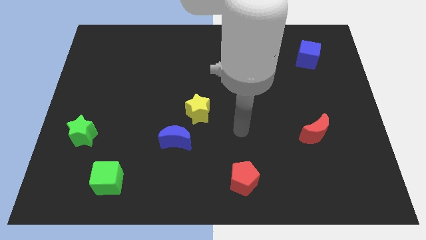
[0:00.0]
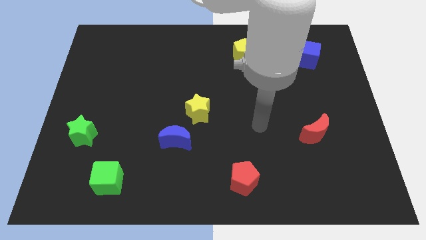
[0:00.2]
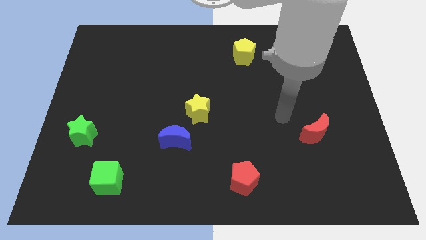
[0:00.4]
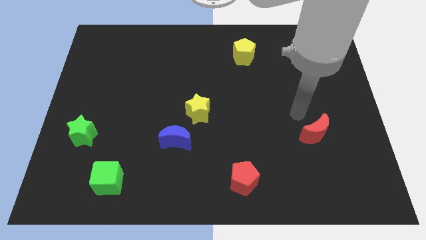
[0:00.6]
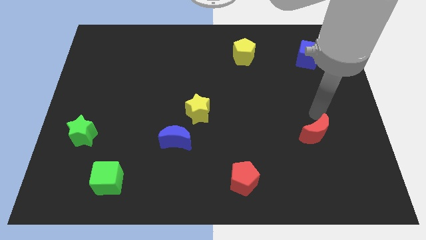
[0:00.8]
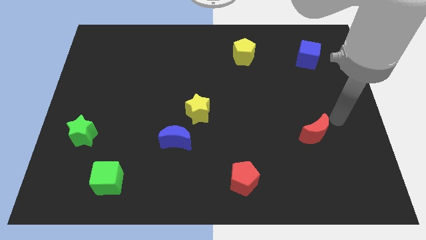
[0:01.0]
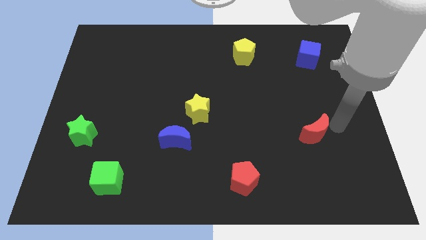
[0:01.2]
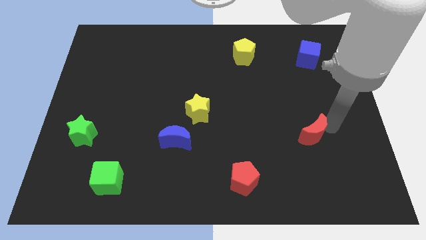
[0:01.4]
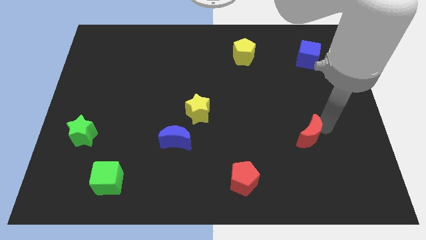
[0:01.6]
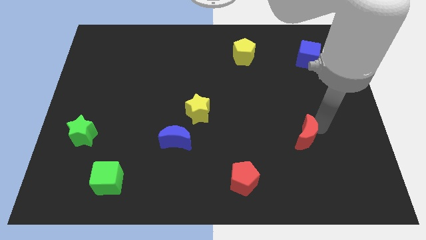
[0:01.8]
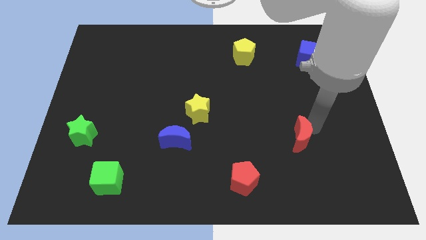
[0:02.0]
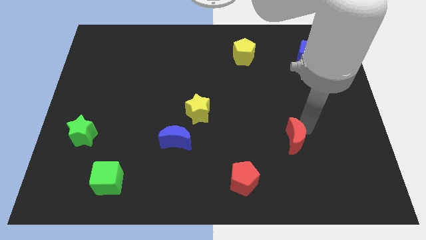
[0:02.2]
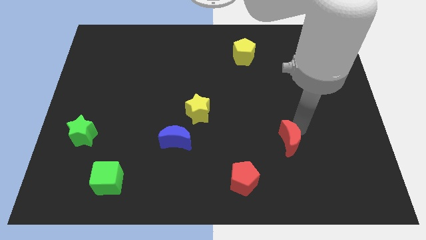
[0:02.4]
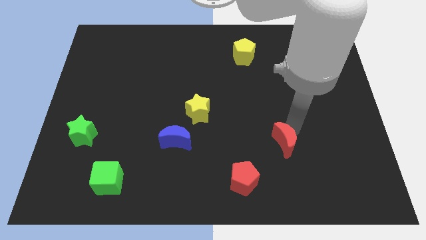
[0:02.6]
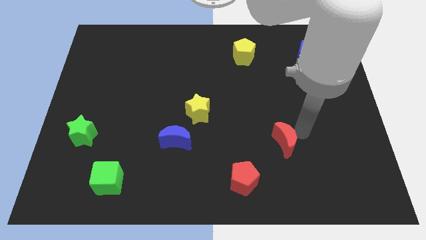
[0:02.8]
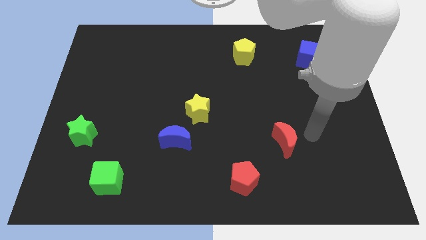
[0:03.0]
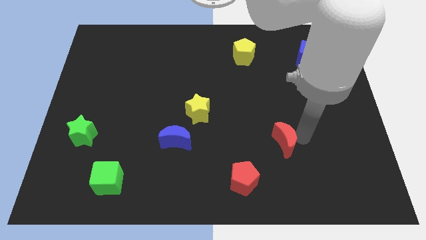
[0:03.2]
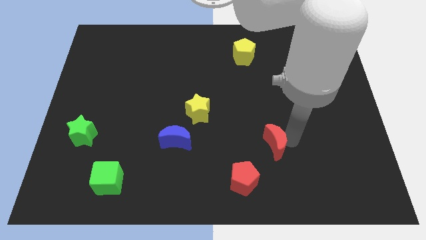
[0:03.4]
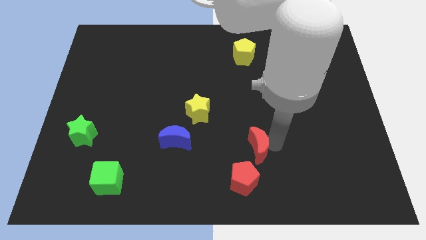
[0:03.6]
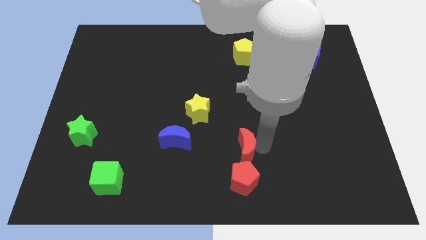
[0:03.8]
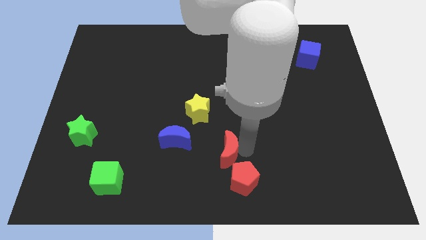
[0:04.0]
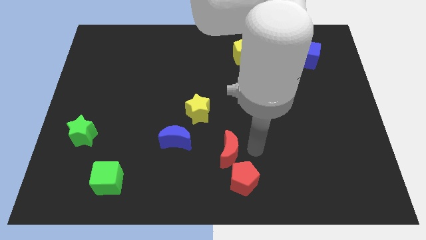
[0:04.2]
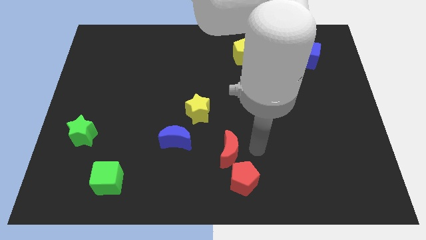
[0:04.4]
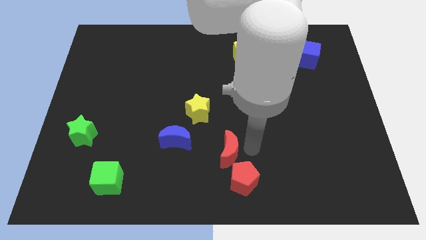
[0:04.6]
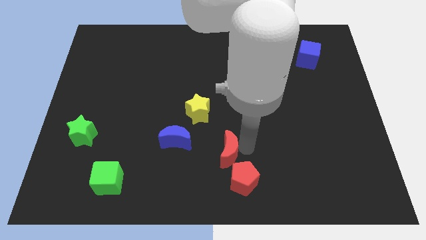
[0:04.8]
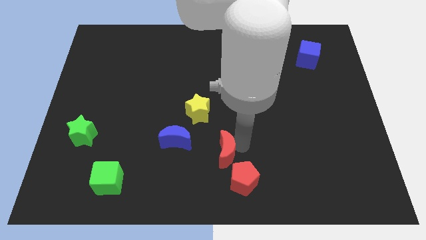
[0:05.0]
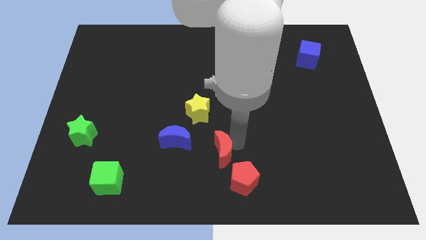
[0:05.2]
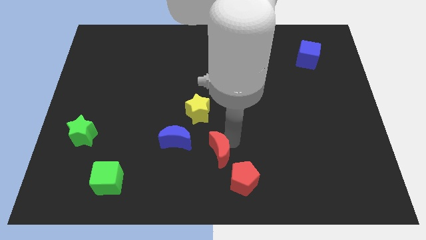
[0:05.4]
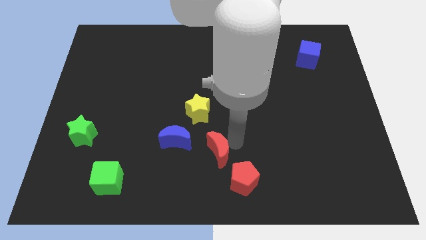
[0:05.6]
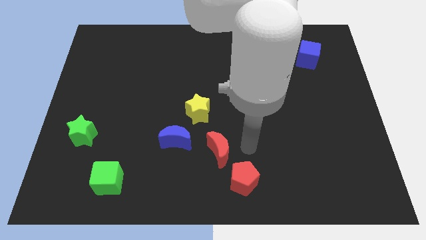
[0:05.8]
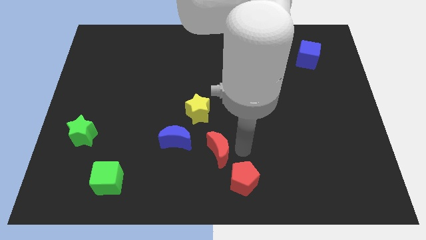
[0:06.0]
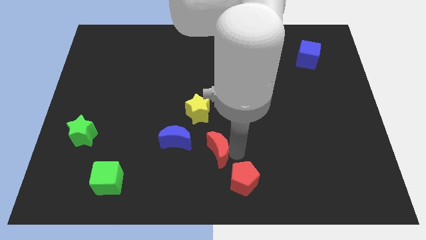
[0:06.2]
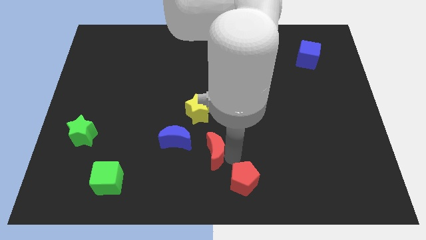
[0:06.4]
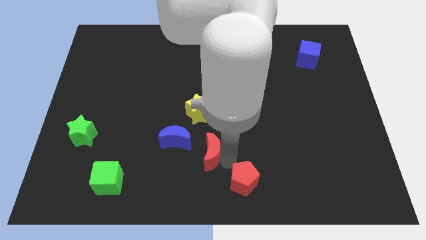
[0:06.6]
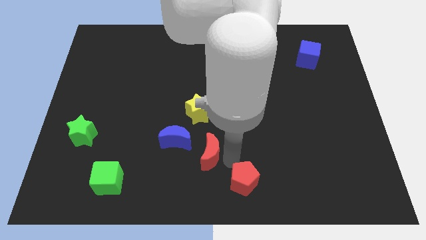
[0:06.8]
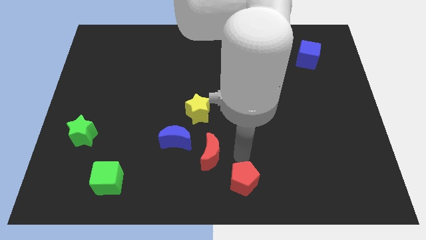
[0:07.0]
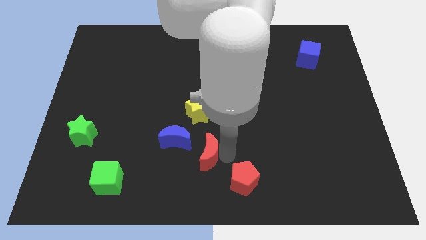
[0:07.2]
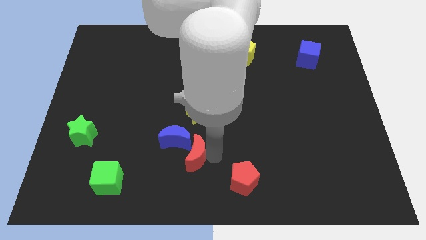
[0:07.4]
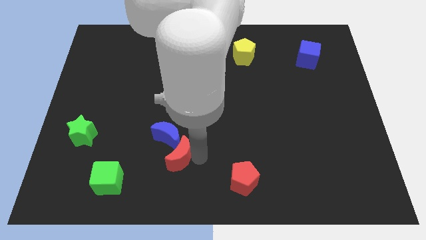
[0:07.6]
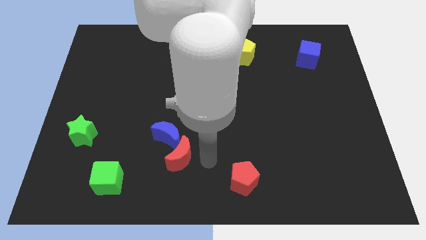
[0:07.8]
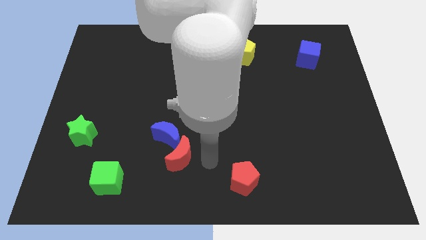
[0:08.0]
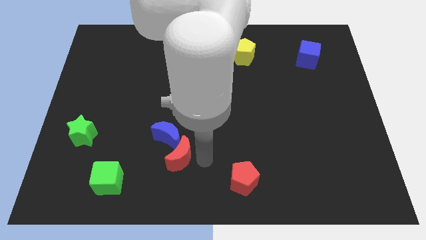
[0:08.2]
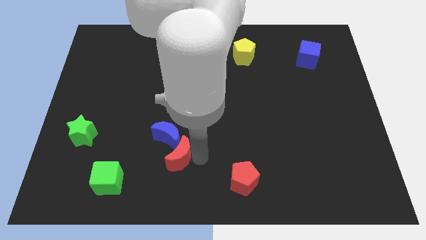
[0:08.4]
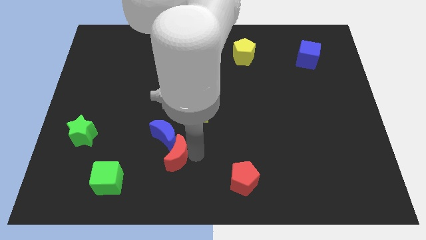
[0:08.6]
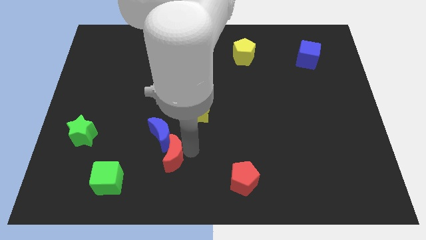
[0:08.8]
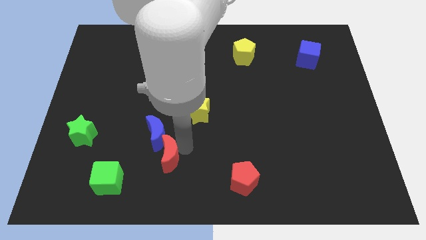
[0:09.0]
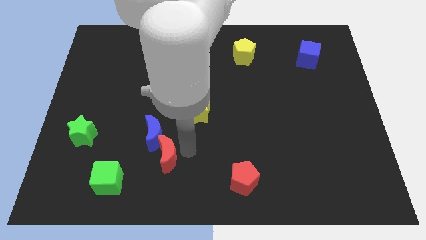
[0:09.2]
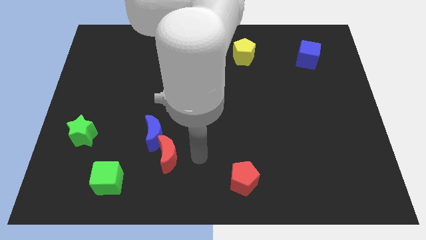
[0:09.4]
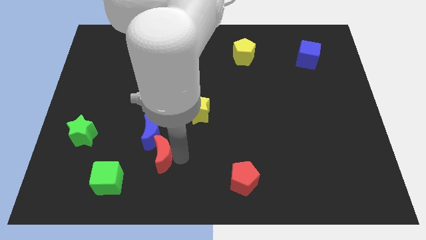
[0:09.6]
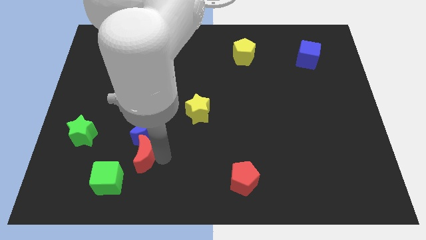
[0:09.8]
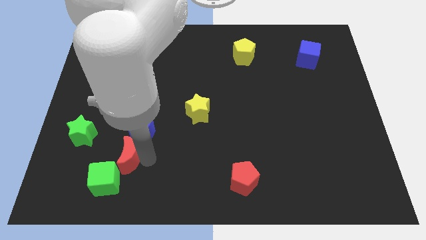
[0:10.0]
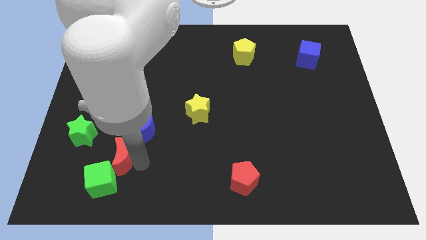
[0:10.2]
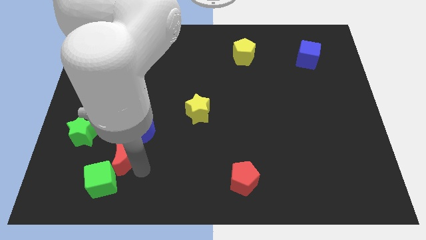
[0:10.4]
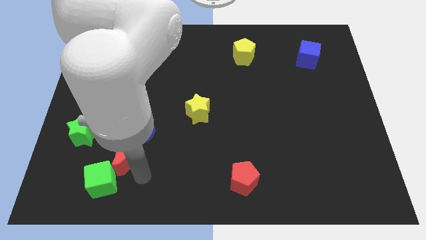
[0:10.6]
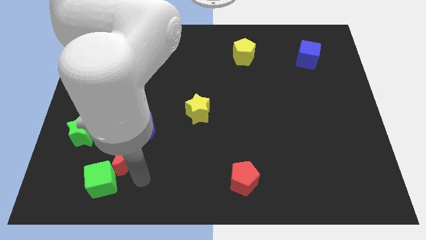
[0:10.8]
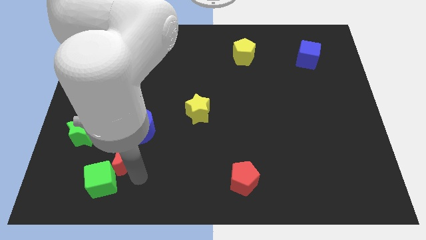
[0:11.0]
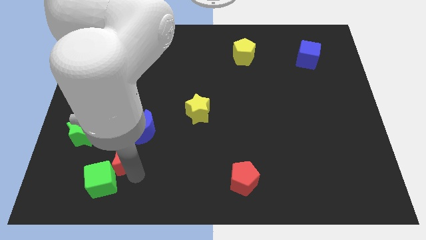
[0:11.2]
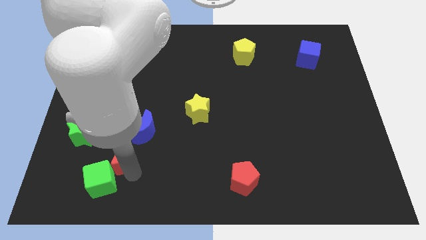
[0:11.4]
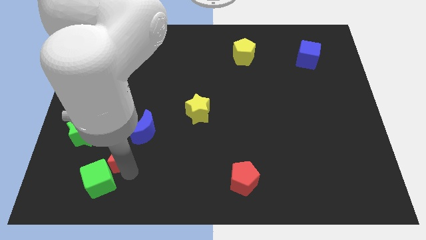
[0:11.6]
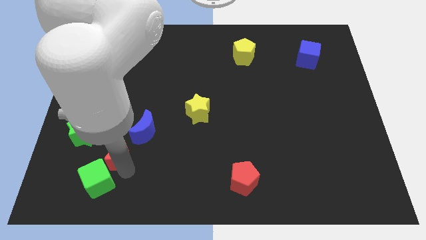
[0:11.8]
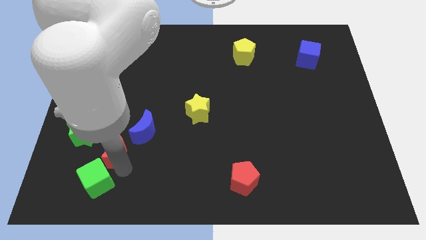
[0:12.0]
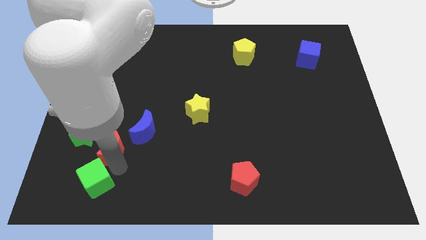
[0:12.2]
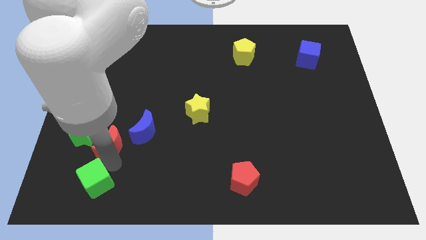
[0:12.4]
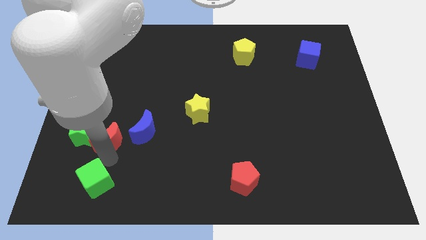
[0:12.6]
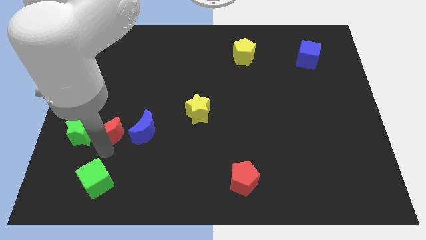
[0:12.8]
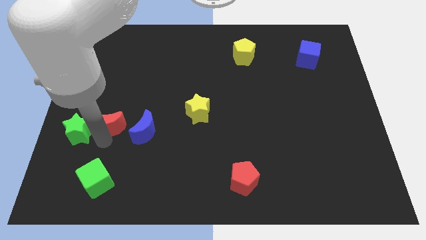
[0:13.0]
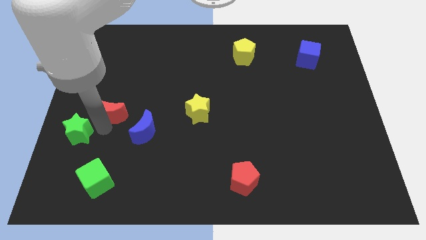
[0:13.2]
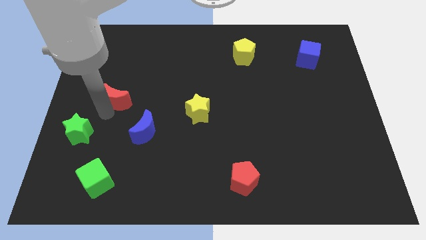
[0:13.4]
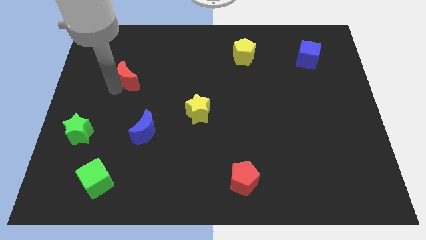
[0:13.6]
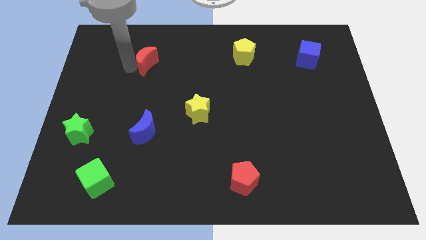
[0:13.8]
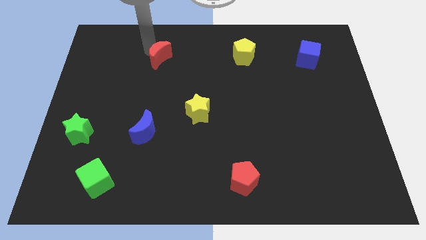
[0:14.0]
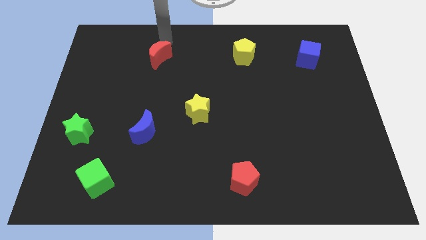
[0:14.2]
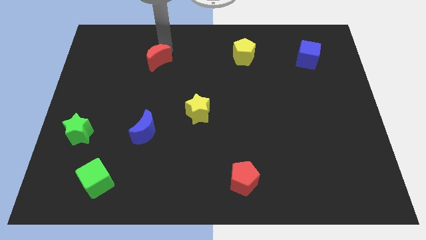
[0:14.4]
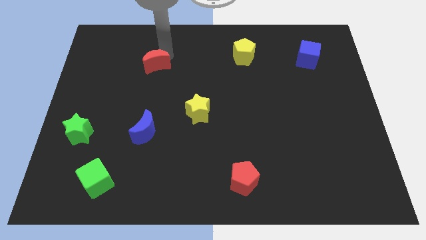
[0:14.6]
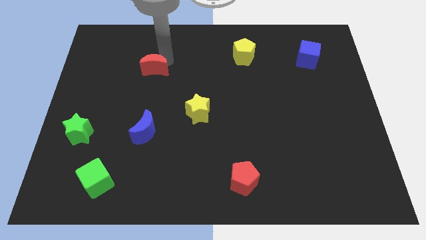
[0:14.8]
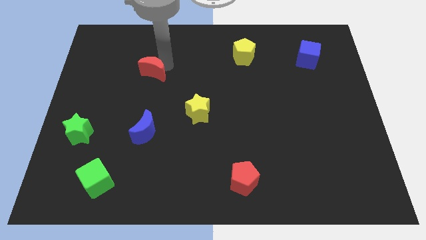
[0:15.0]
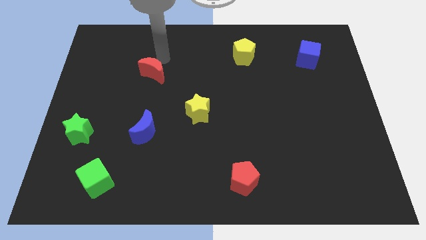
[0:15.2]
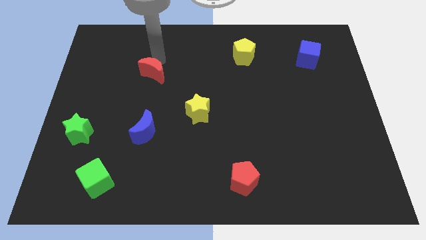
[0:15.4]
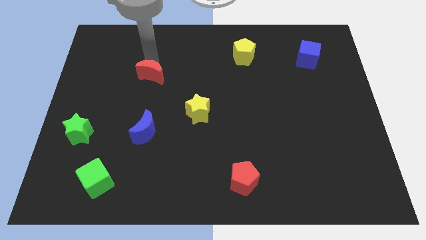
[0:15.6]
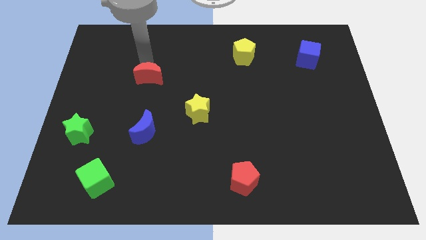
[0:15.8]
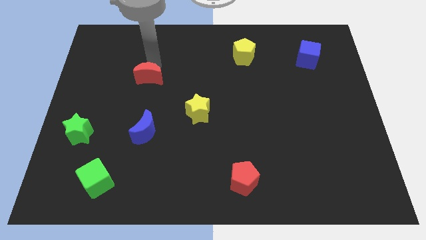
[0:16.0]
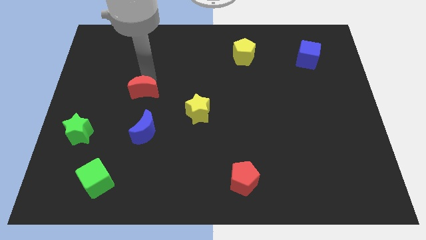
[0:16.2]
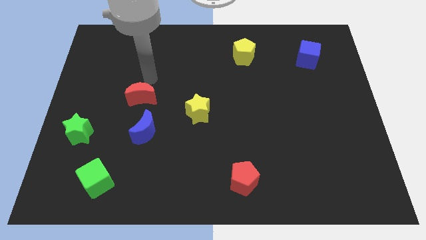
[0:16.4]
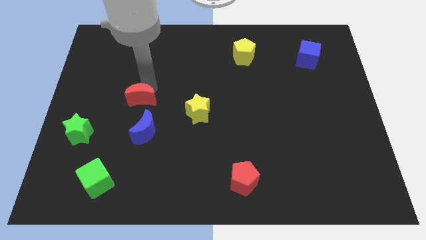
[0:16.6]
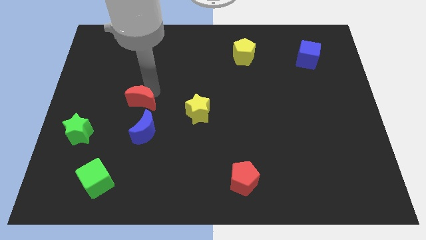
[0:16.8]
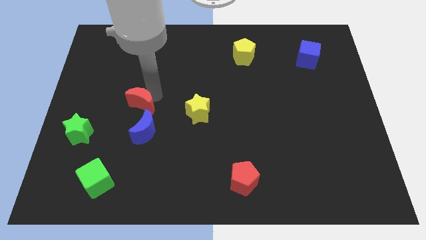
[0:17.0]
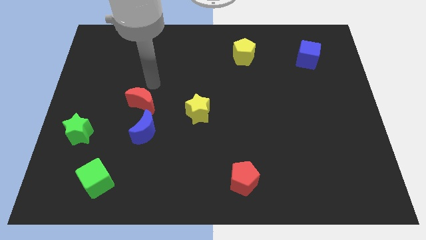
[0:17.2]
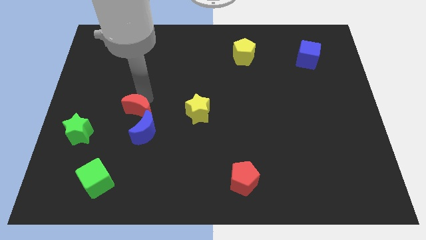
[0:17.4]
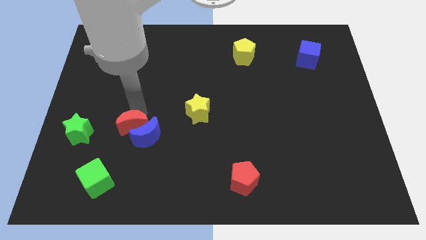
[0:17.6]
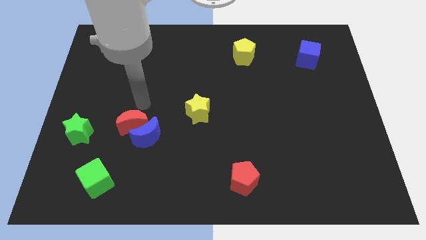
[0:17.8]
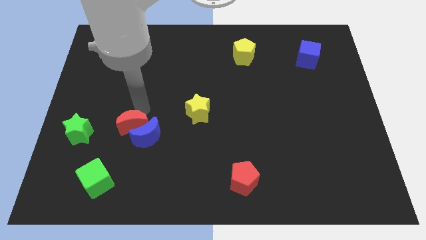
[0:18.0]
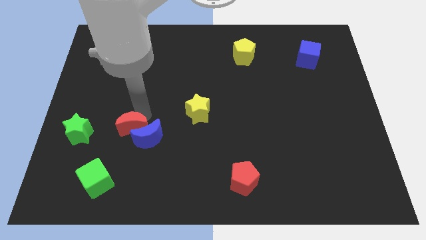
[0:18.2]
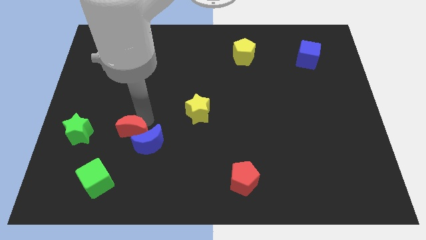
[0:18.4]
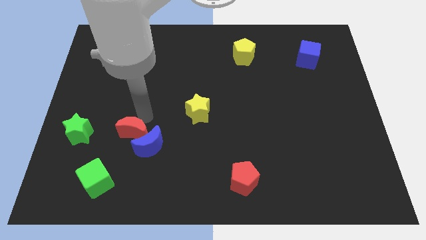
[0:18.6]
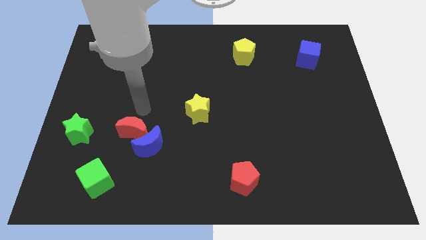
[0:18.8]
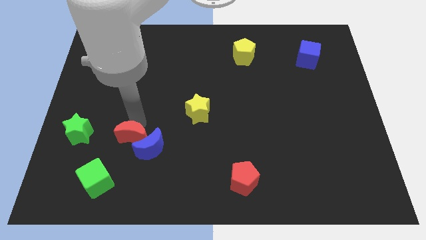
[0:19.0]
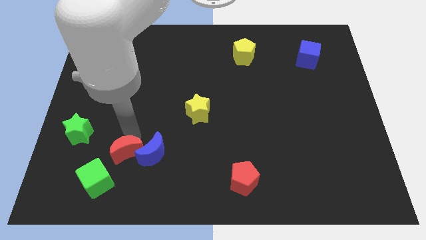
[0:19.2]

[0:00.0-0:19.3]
move the red moon diagonally down and to the left of the blue moon
